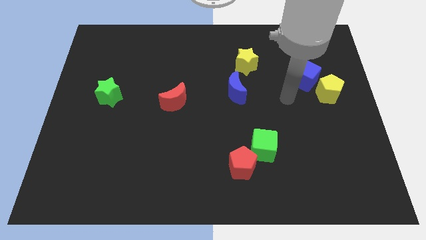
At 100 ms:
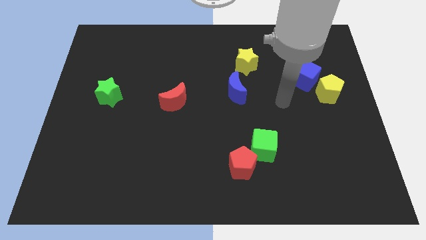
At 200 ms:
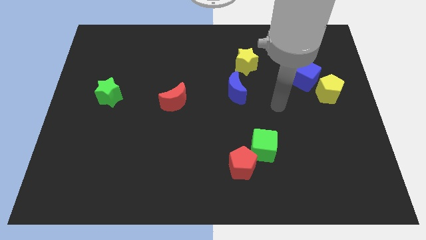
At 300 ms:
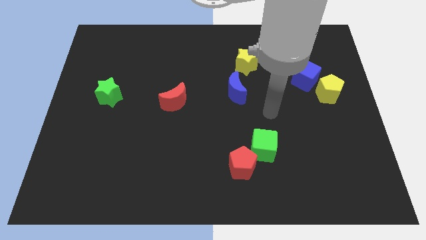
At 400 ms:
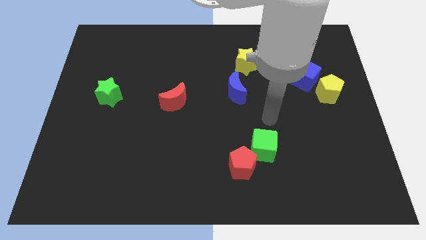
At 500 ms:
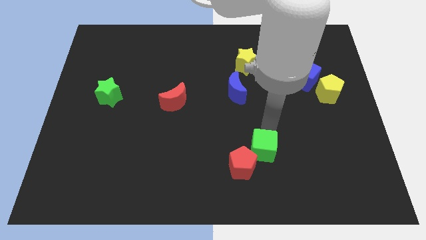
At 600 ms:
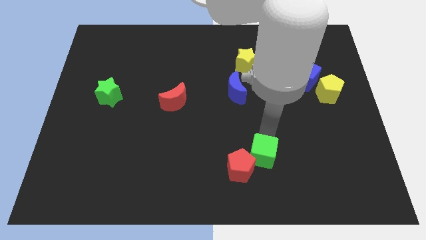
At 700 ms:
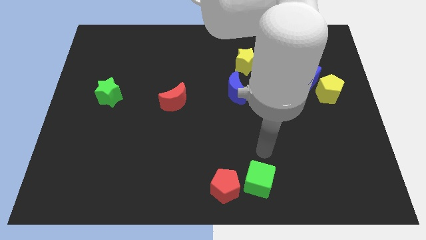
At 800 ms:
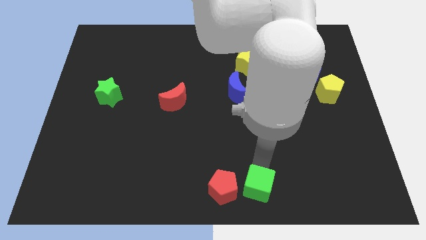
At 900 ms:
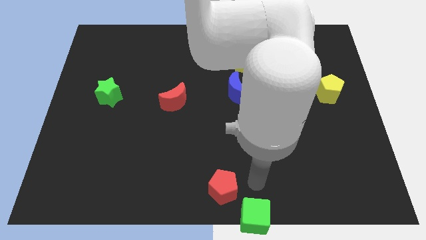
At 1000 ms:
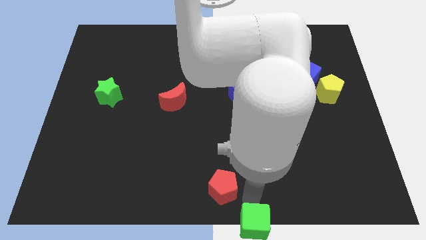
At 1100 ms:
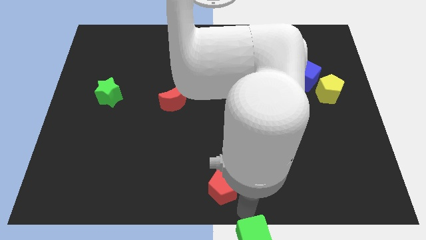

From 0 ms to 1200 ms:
pull the red pentagon apart from the green cube

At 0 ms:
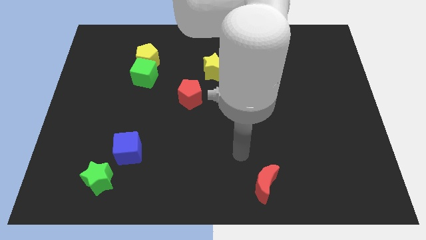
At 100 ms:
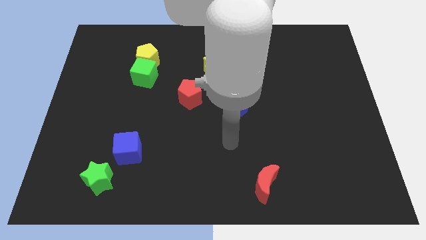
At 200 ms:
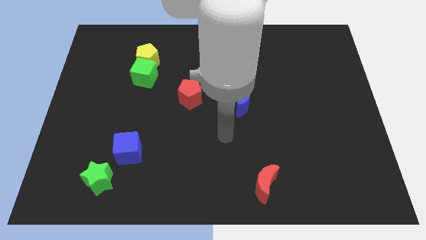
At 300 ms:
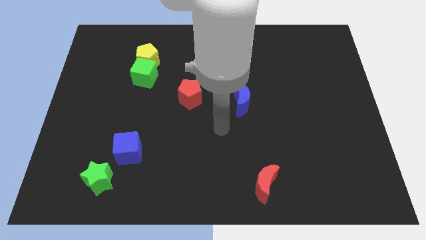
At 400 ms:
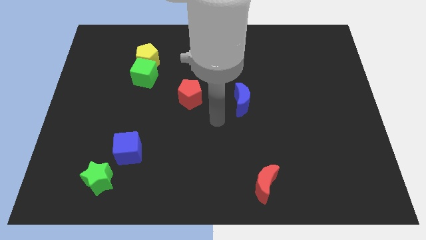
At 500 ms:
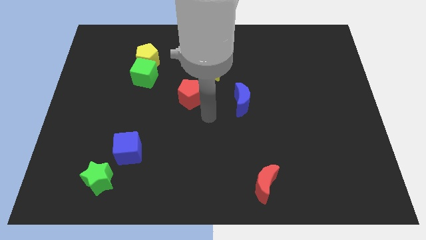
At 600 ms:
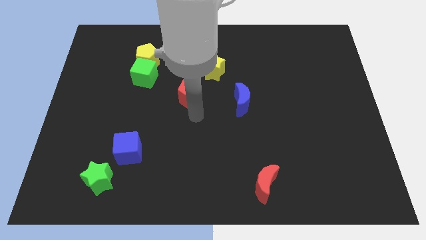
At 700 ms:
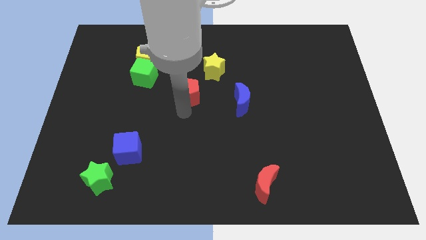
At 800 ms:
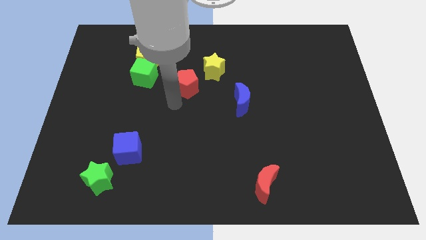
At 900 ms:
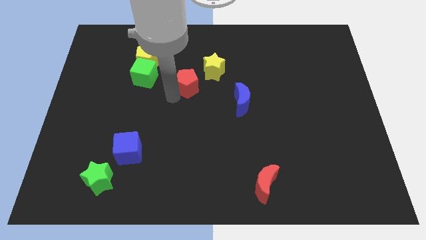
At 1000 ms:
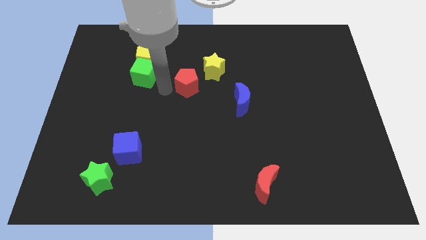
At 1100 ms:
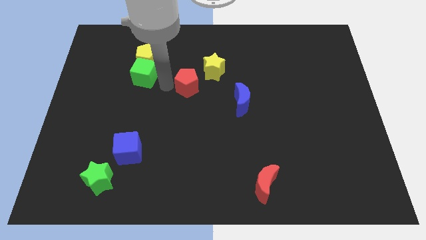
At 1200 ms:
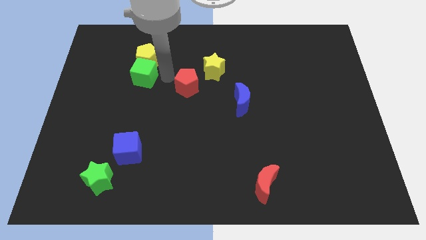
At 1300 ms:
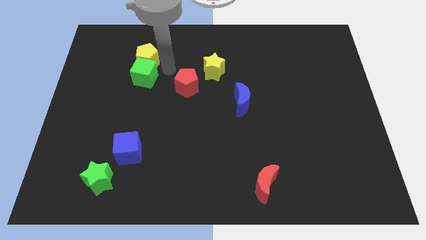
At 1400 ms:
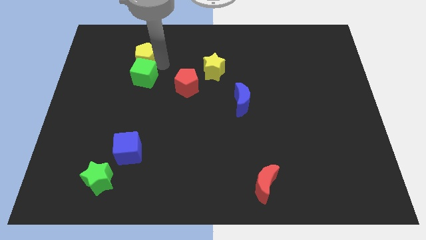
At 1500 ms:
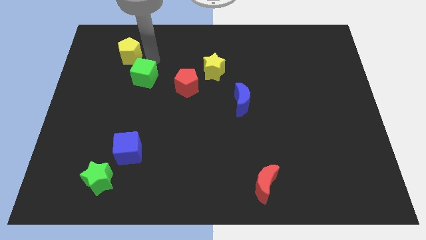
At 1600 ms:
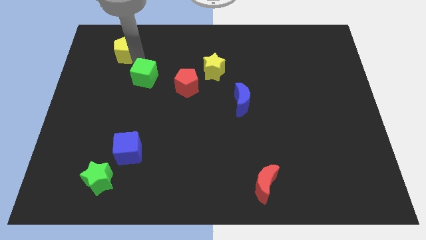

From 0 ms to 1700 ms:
pull the green cube apart from the yellow pentagon

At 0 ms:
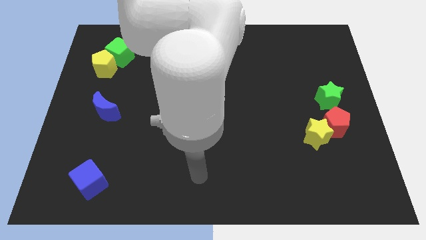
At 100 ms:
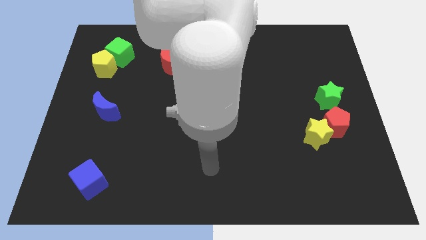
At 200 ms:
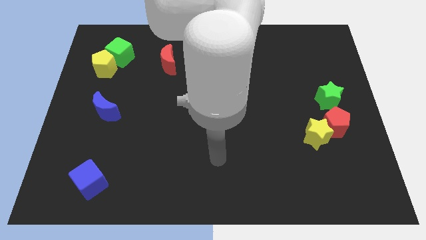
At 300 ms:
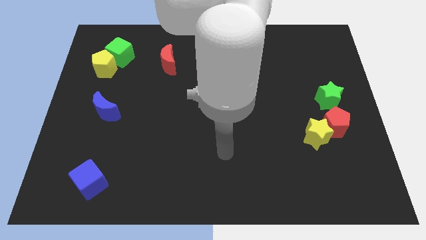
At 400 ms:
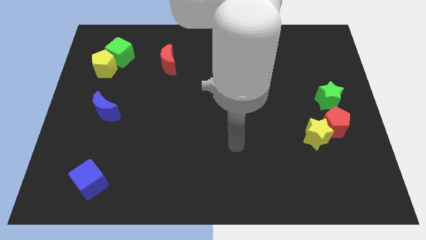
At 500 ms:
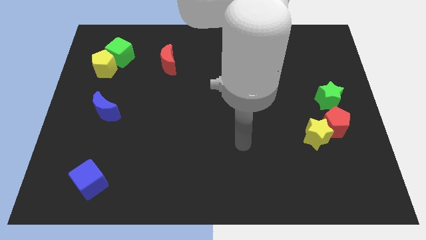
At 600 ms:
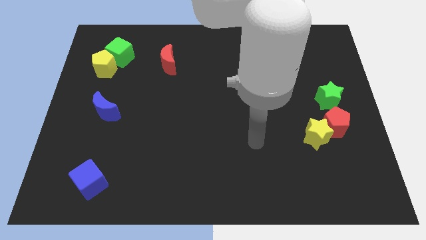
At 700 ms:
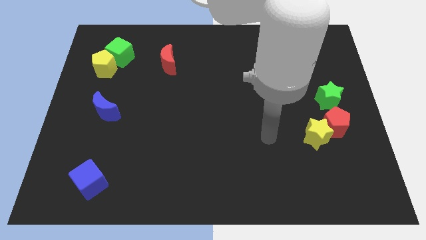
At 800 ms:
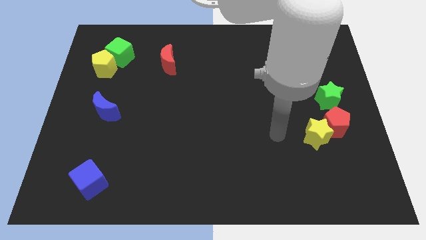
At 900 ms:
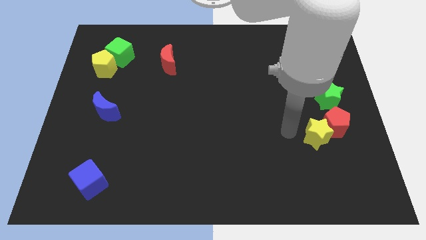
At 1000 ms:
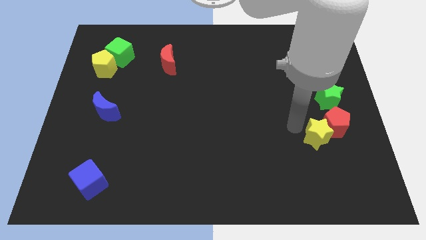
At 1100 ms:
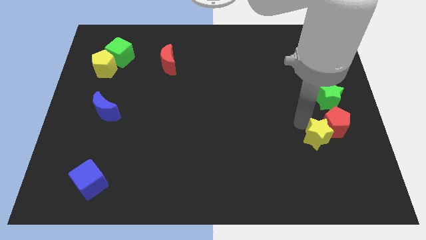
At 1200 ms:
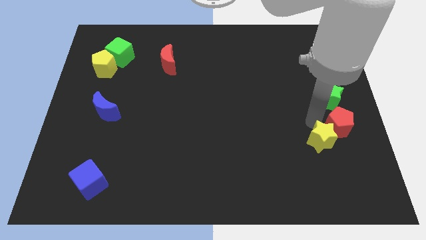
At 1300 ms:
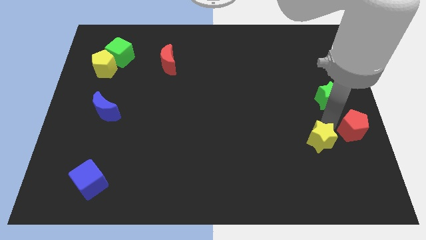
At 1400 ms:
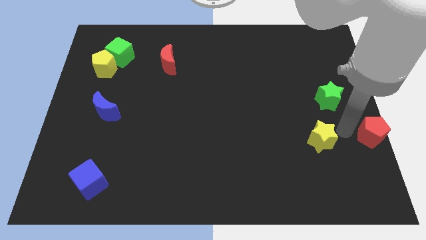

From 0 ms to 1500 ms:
separate the yellow star from the red pentagon

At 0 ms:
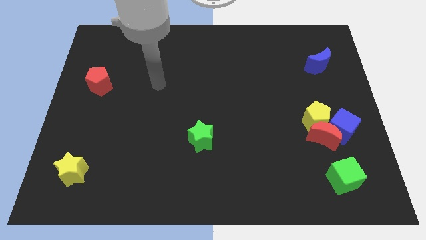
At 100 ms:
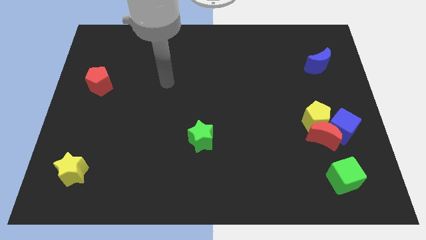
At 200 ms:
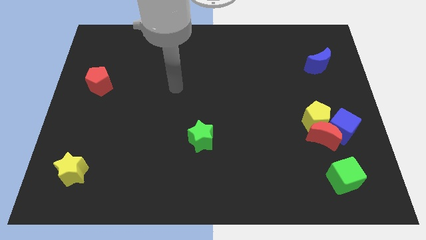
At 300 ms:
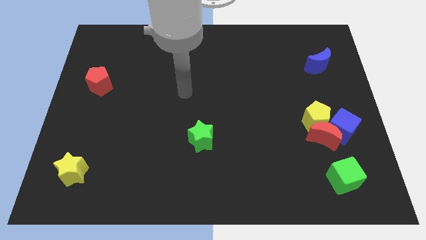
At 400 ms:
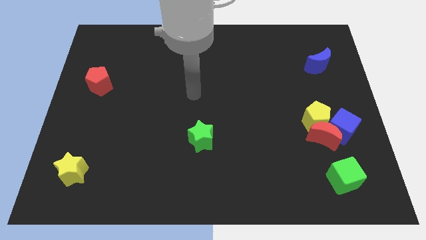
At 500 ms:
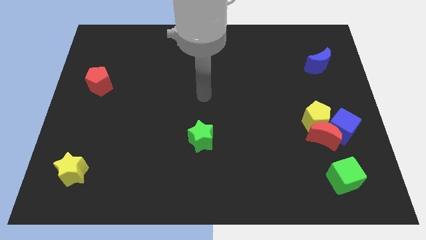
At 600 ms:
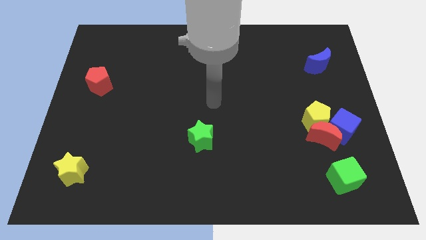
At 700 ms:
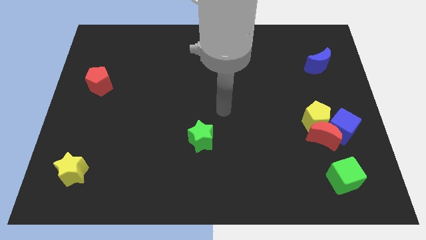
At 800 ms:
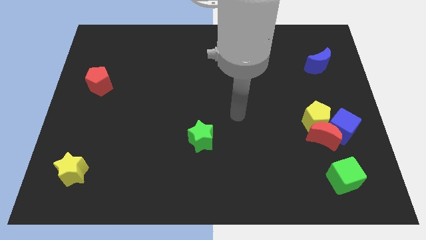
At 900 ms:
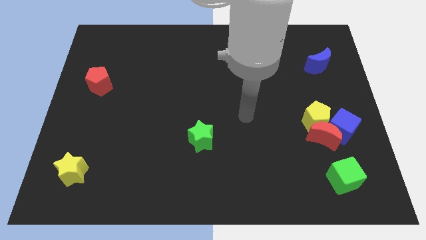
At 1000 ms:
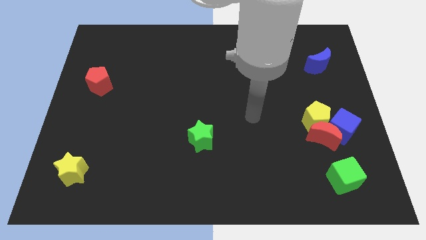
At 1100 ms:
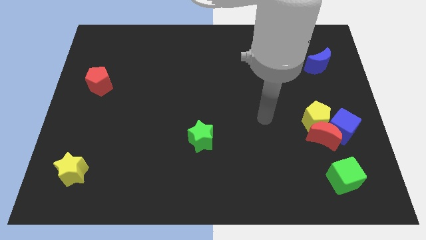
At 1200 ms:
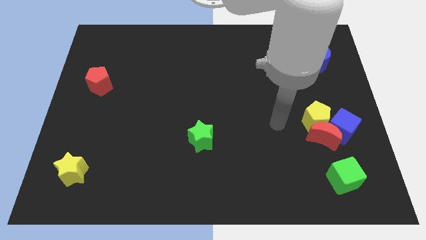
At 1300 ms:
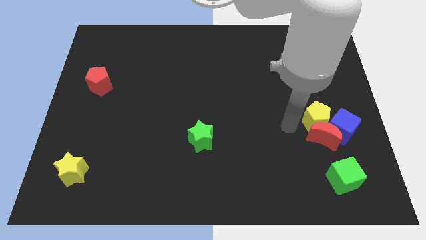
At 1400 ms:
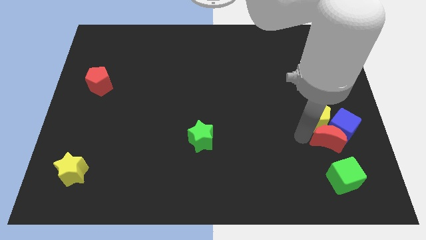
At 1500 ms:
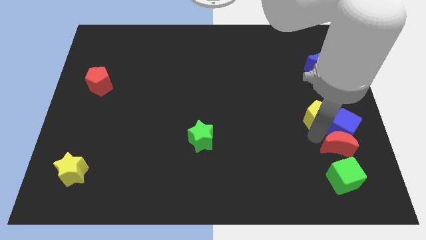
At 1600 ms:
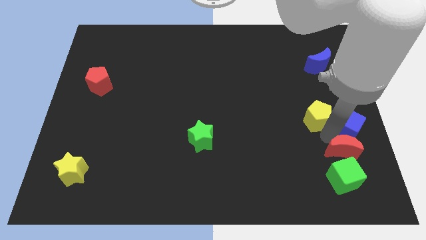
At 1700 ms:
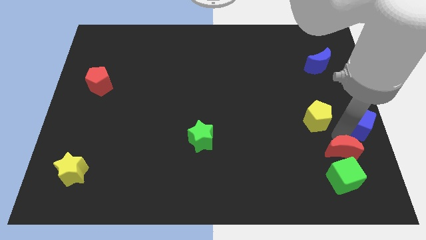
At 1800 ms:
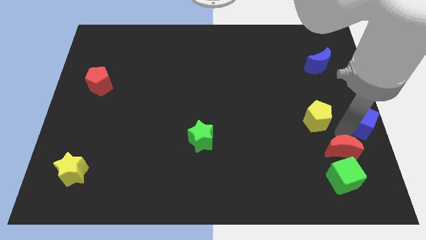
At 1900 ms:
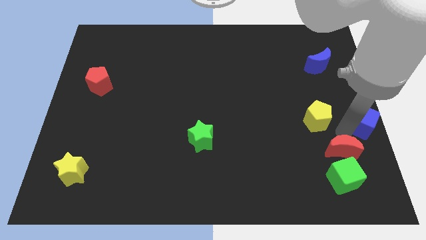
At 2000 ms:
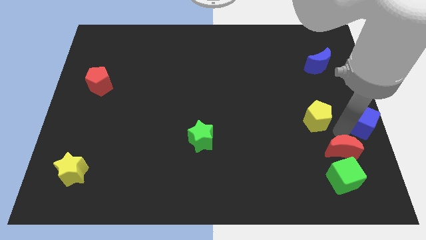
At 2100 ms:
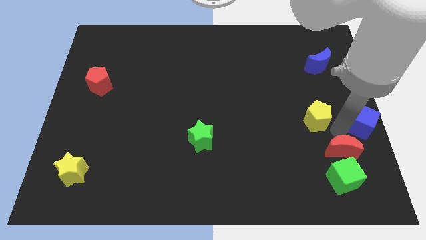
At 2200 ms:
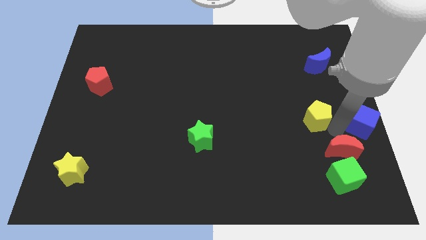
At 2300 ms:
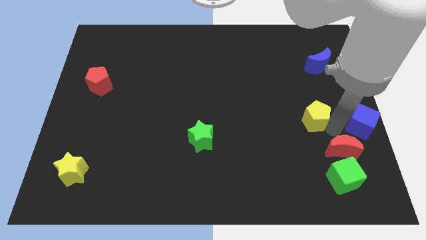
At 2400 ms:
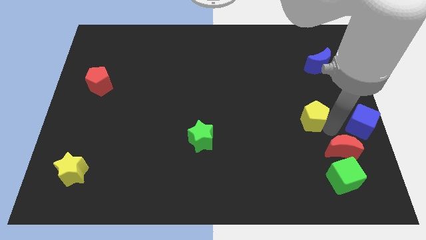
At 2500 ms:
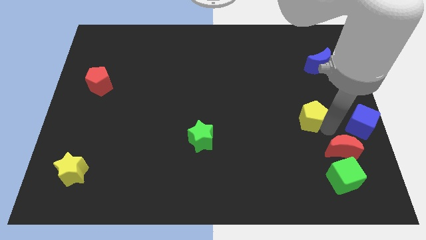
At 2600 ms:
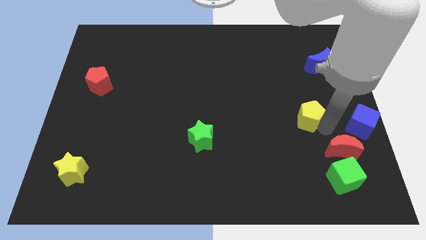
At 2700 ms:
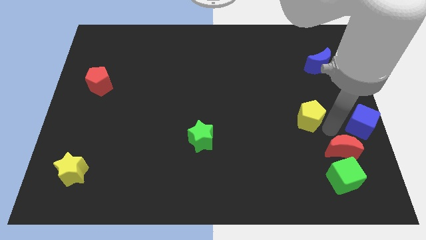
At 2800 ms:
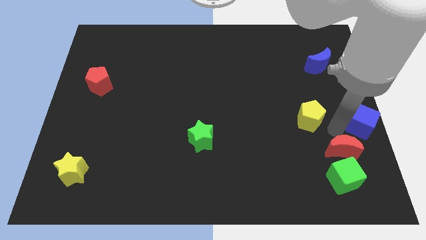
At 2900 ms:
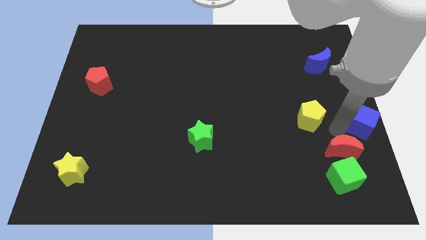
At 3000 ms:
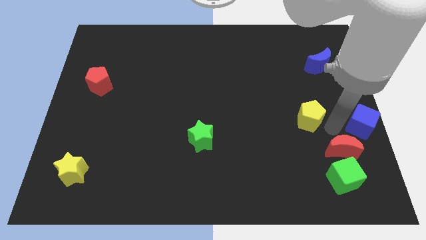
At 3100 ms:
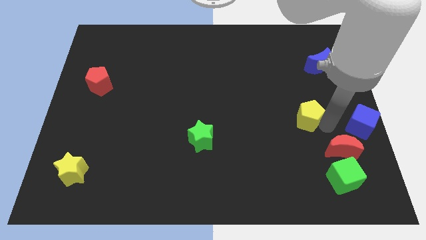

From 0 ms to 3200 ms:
pull the yellow pentagon apart from the red moon and blue cube

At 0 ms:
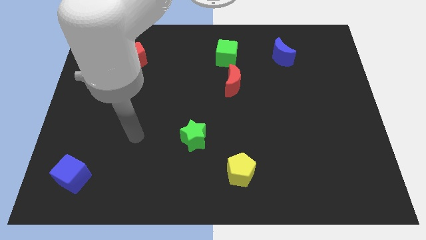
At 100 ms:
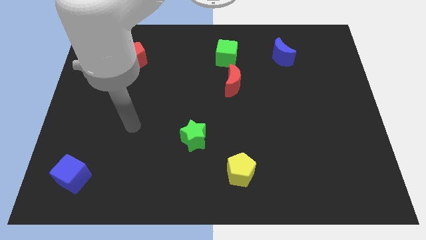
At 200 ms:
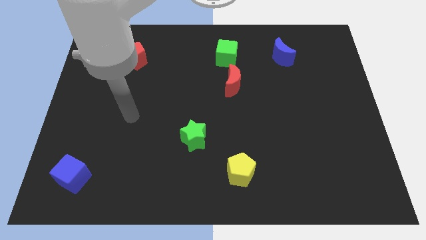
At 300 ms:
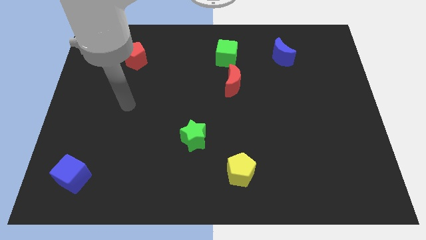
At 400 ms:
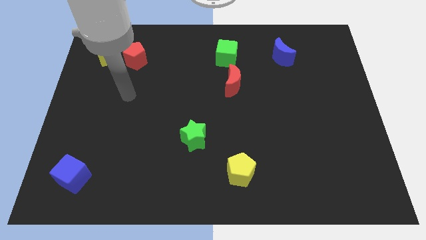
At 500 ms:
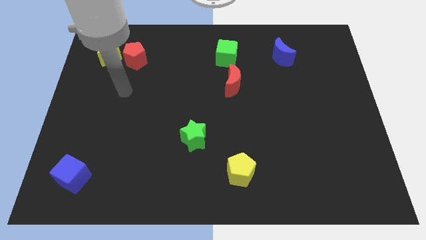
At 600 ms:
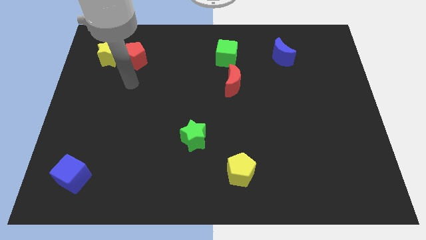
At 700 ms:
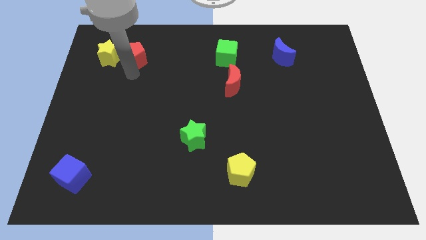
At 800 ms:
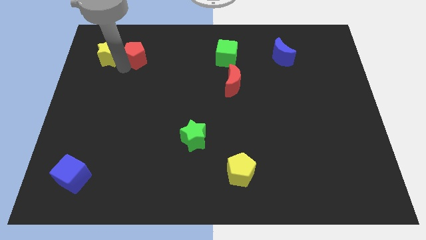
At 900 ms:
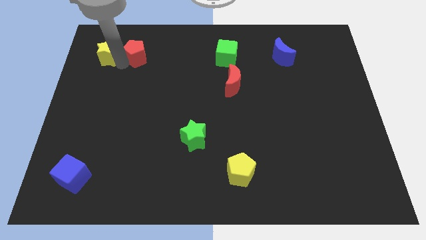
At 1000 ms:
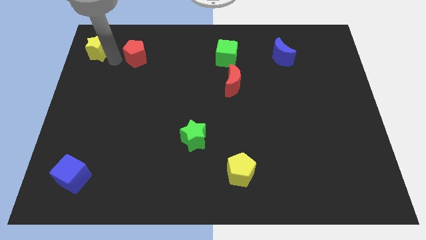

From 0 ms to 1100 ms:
move the red pentagon away from the yellow star

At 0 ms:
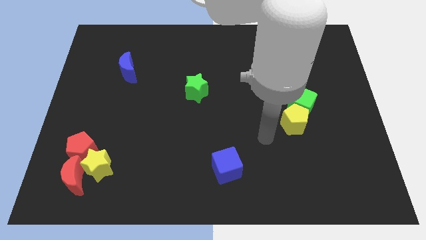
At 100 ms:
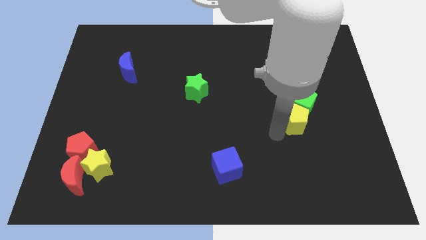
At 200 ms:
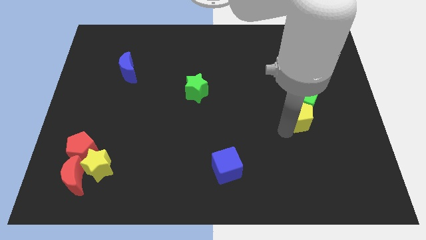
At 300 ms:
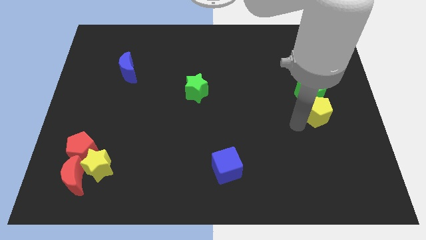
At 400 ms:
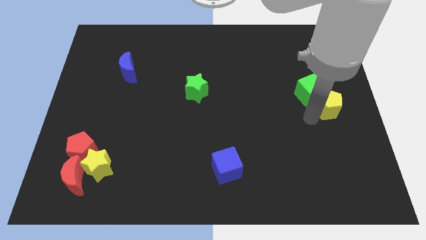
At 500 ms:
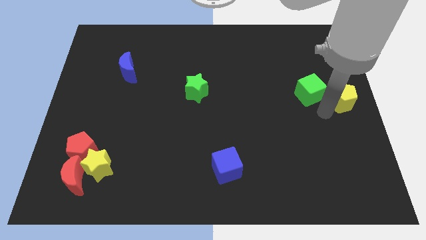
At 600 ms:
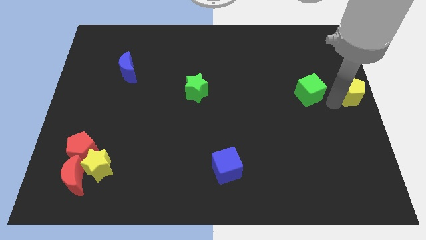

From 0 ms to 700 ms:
separate the green cube from the yellow pentagon
